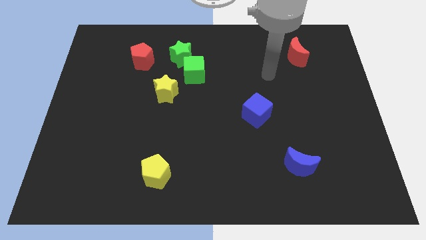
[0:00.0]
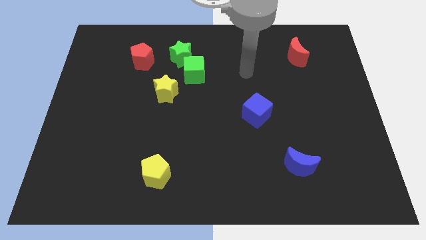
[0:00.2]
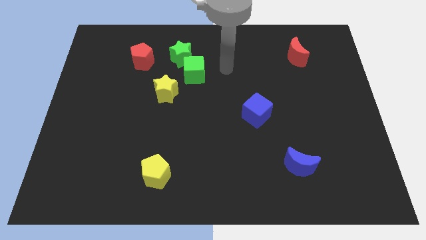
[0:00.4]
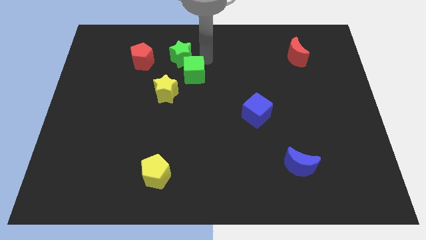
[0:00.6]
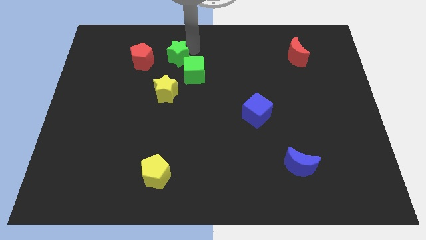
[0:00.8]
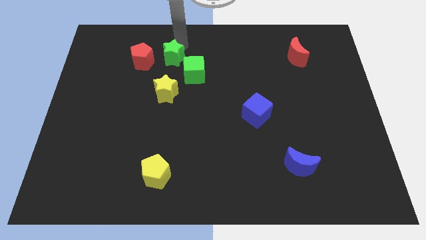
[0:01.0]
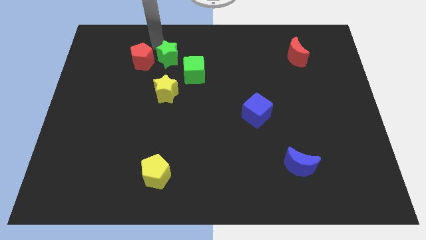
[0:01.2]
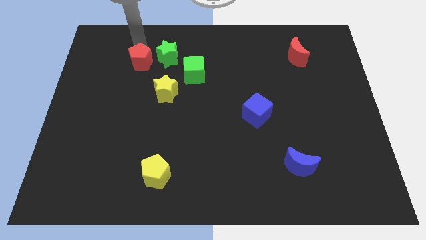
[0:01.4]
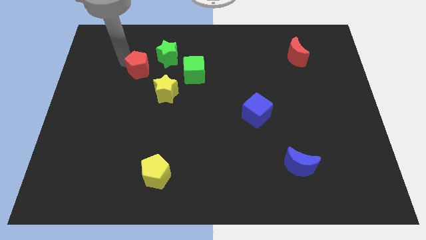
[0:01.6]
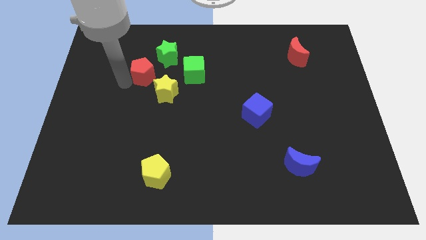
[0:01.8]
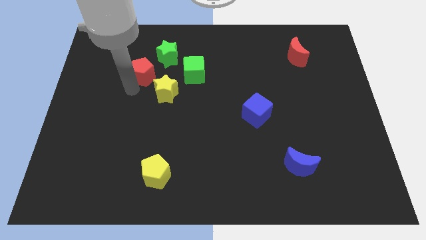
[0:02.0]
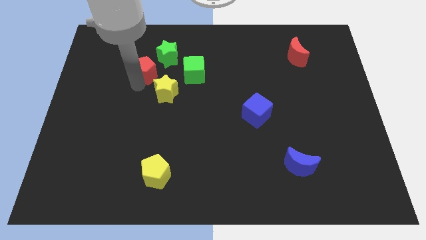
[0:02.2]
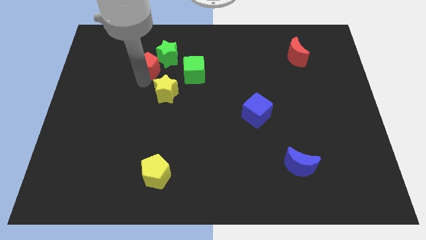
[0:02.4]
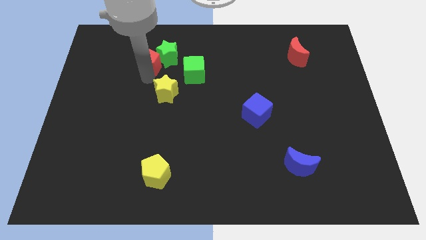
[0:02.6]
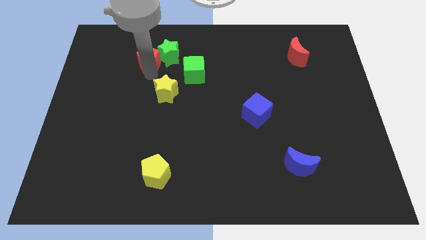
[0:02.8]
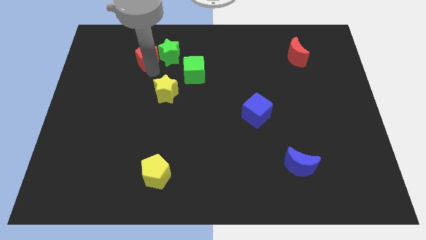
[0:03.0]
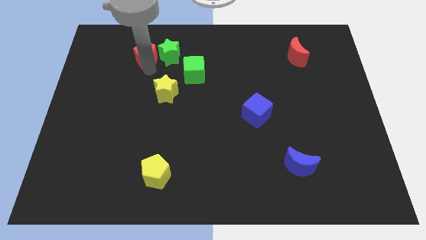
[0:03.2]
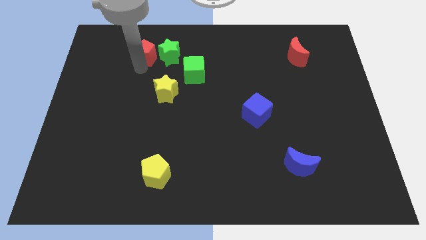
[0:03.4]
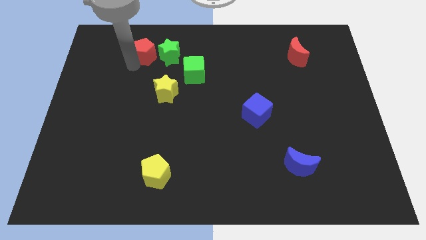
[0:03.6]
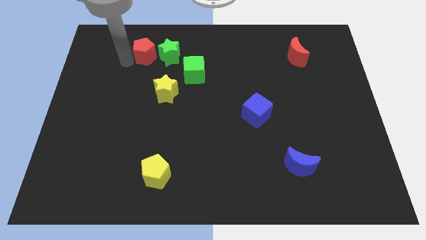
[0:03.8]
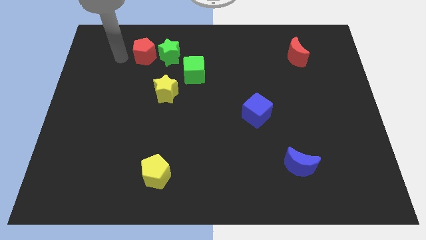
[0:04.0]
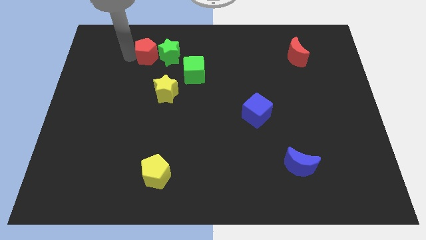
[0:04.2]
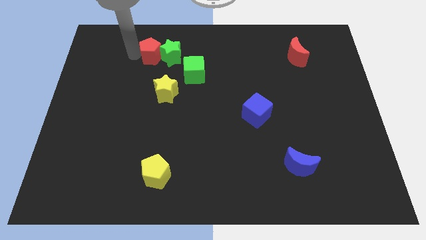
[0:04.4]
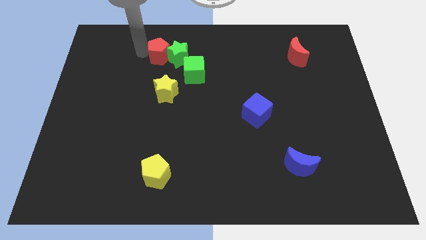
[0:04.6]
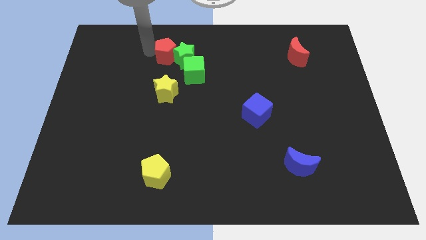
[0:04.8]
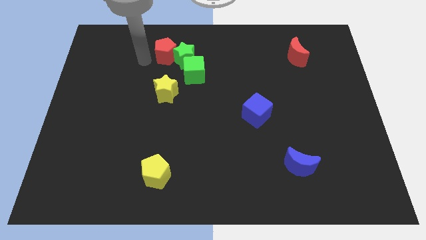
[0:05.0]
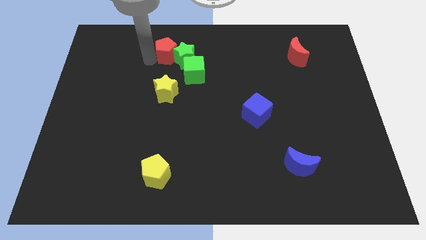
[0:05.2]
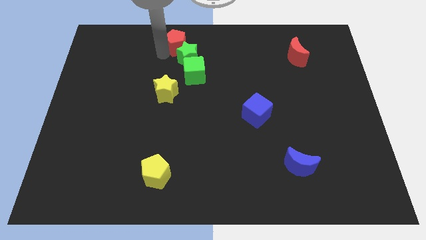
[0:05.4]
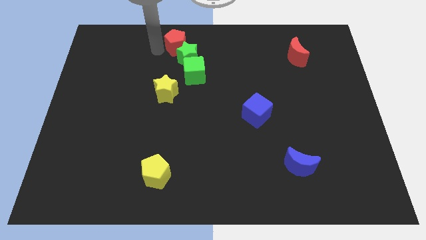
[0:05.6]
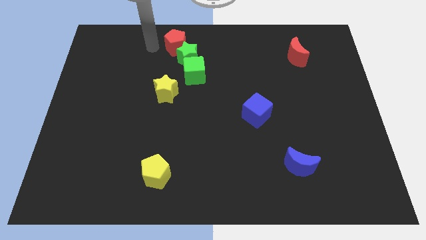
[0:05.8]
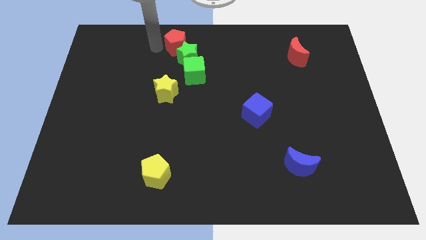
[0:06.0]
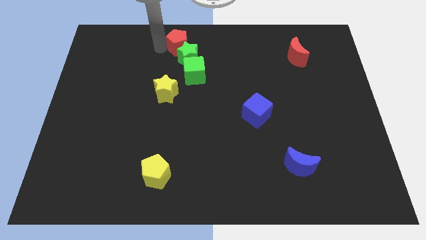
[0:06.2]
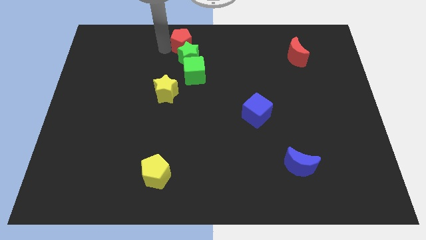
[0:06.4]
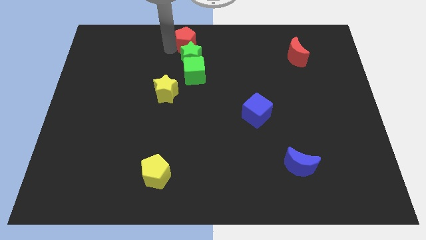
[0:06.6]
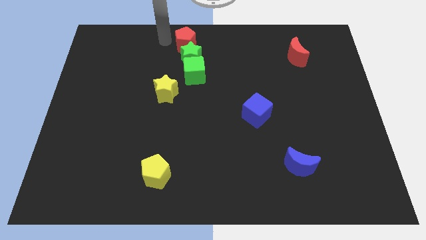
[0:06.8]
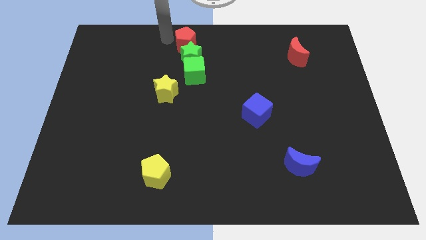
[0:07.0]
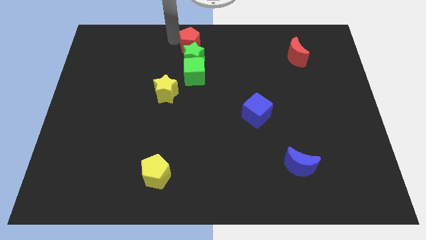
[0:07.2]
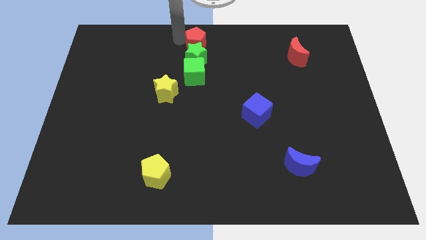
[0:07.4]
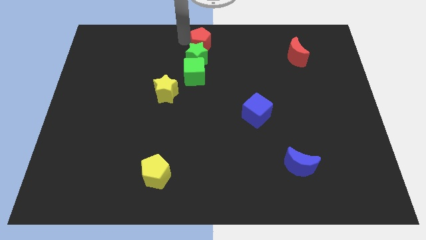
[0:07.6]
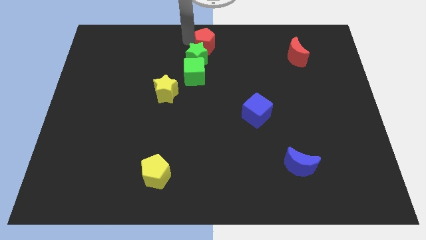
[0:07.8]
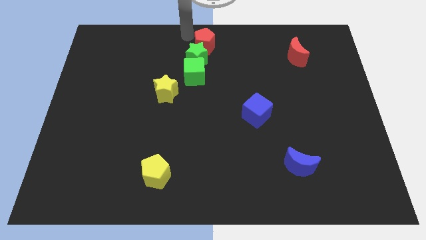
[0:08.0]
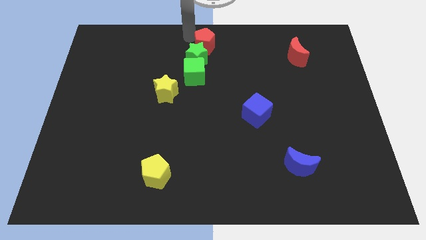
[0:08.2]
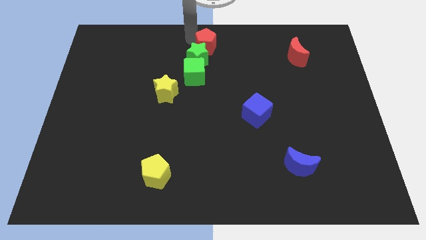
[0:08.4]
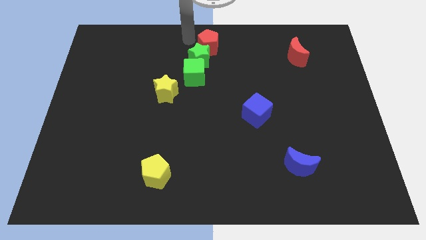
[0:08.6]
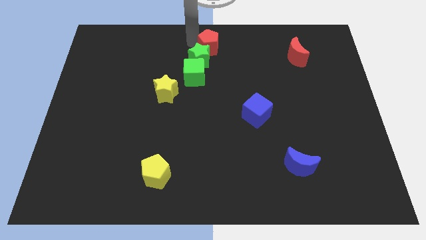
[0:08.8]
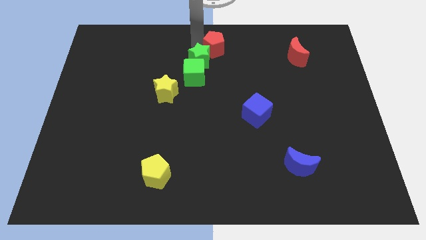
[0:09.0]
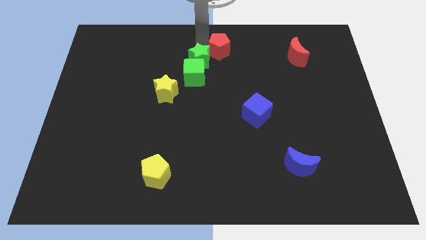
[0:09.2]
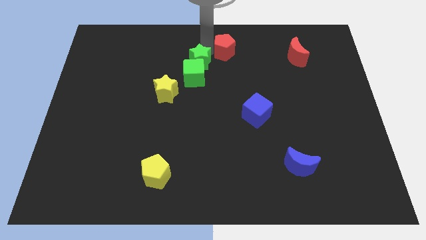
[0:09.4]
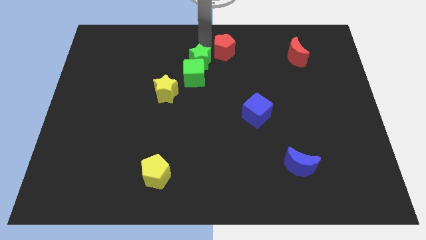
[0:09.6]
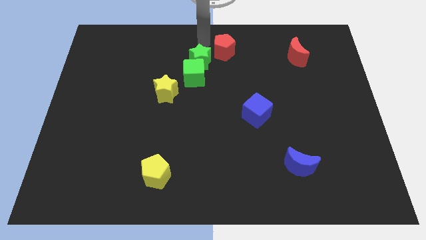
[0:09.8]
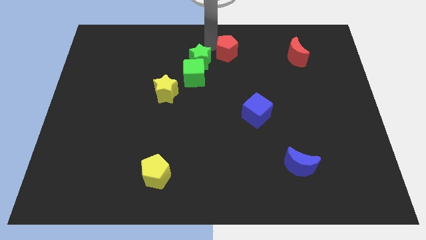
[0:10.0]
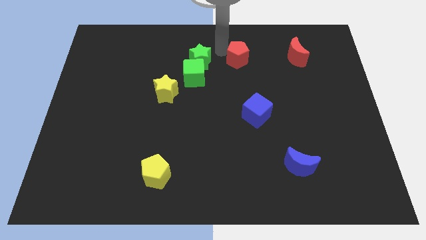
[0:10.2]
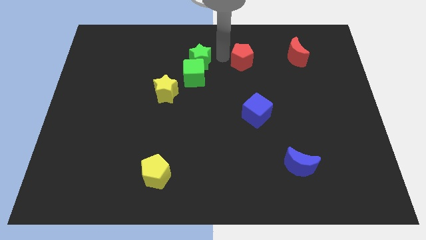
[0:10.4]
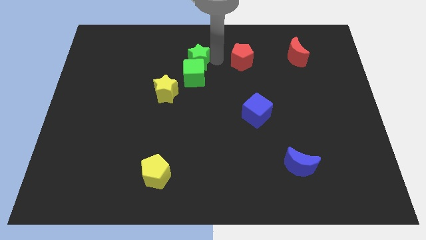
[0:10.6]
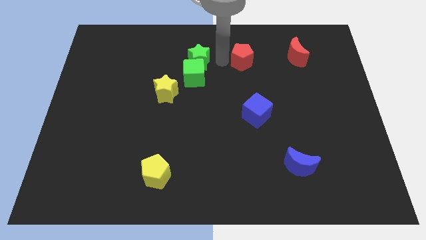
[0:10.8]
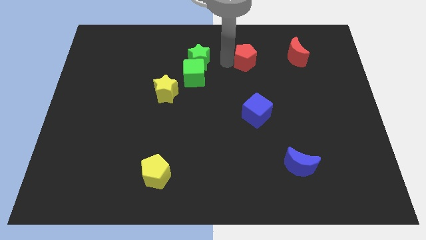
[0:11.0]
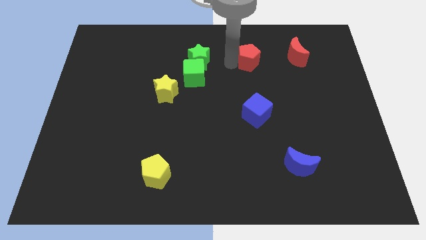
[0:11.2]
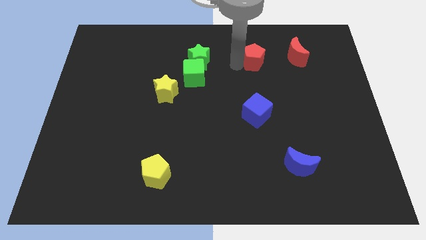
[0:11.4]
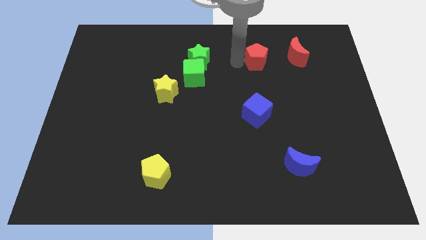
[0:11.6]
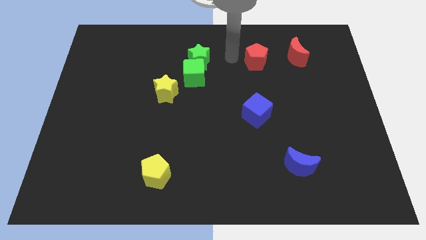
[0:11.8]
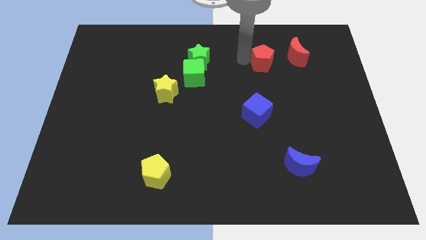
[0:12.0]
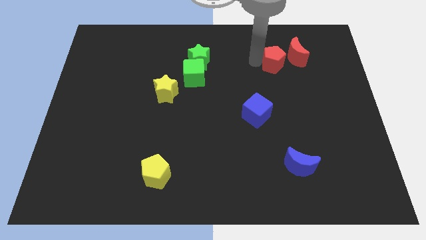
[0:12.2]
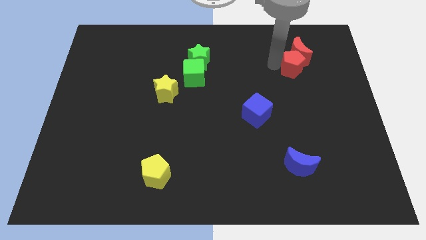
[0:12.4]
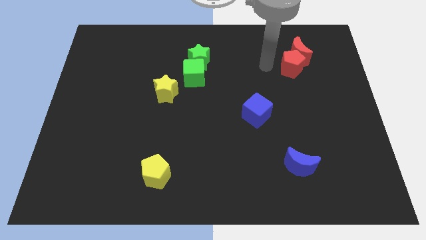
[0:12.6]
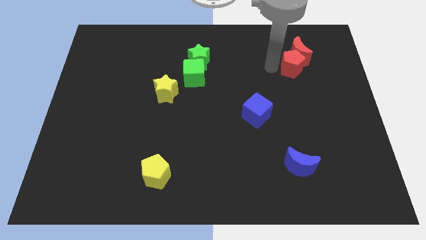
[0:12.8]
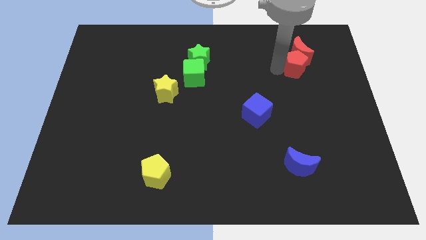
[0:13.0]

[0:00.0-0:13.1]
move the red pentagon to the bottom right of the red moon

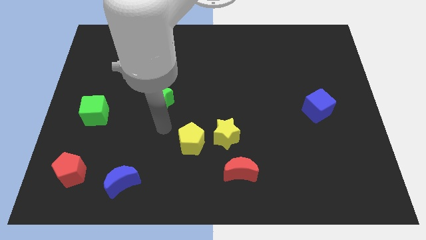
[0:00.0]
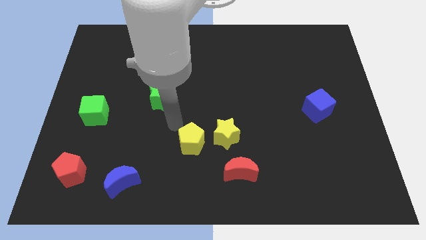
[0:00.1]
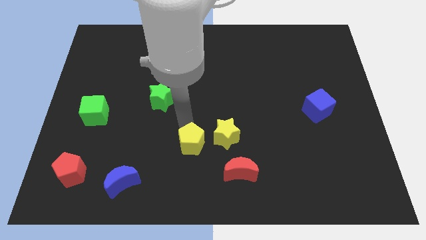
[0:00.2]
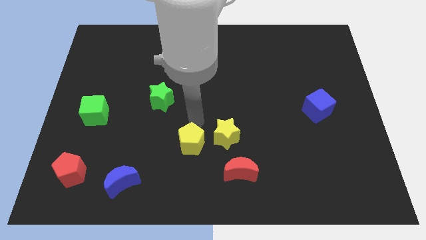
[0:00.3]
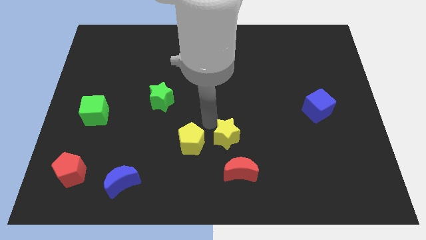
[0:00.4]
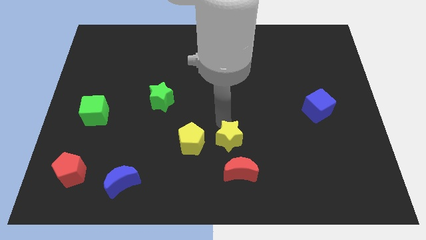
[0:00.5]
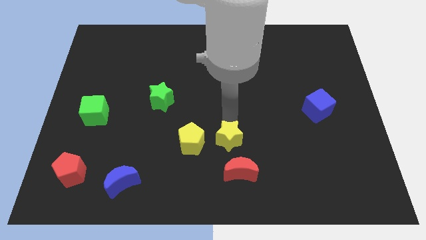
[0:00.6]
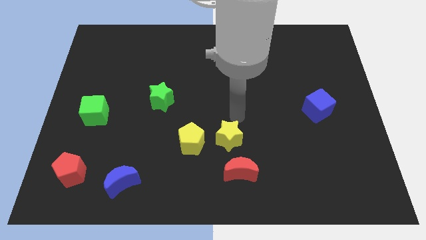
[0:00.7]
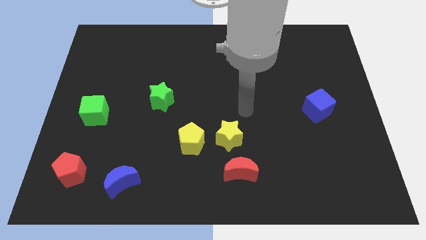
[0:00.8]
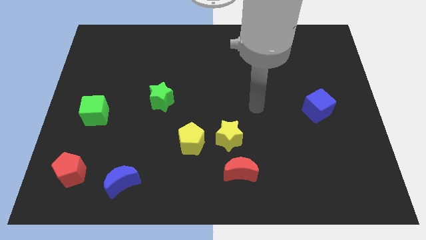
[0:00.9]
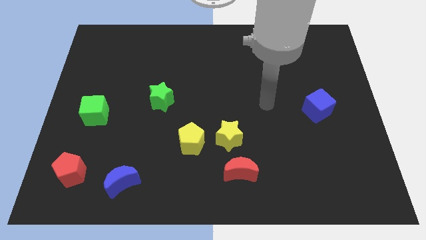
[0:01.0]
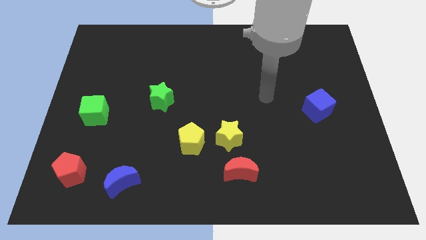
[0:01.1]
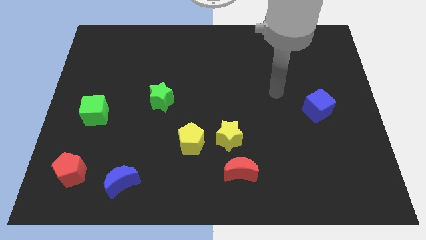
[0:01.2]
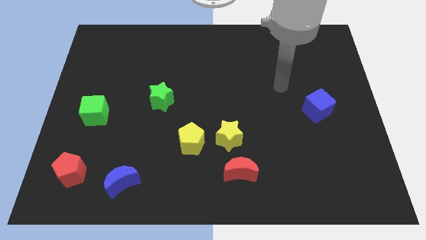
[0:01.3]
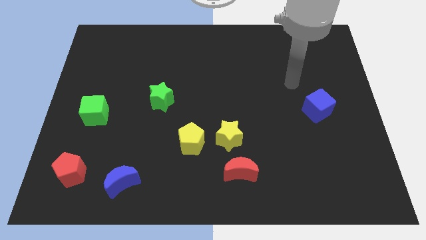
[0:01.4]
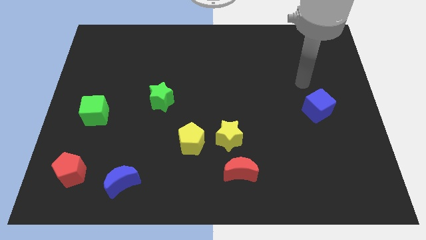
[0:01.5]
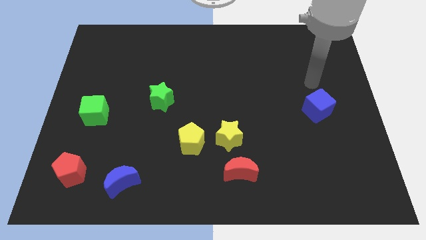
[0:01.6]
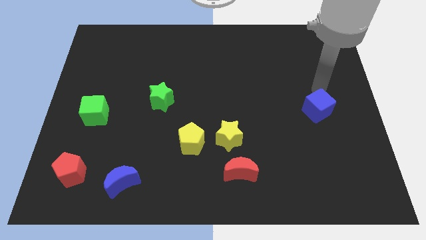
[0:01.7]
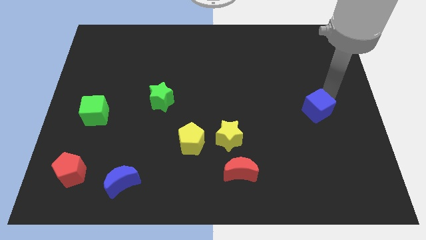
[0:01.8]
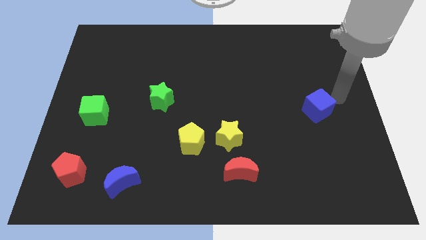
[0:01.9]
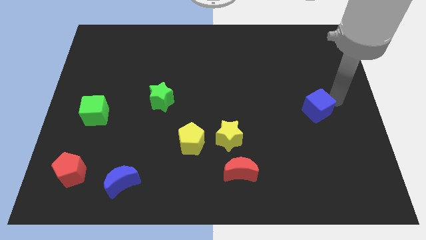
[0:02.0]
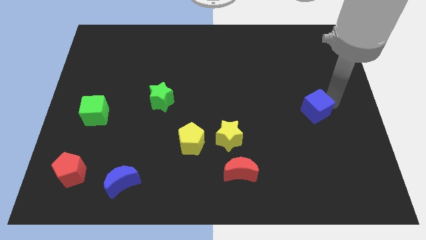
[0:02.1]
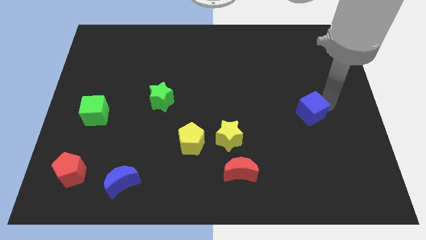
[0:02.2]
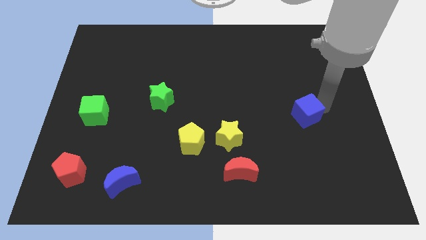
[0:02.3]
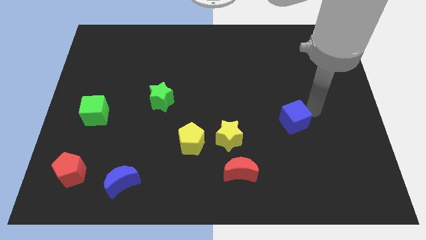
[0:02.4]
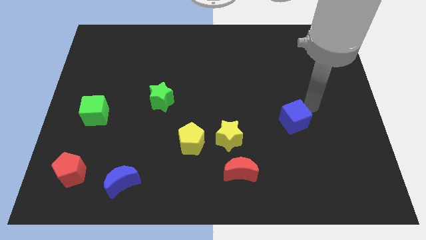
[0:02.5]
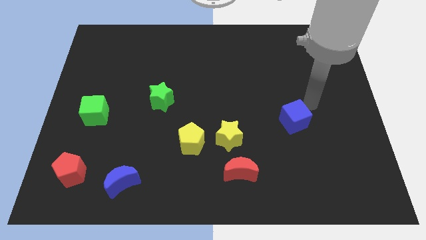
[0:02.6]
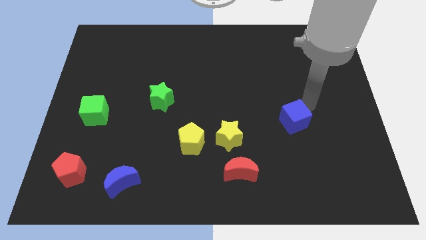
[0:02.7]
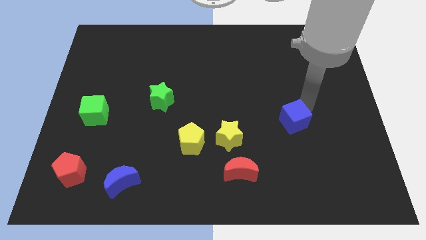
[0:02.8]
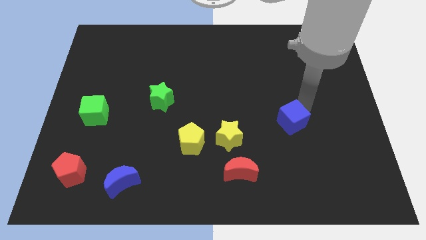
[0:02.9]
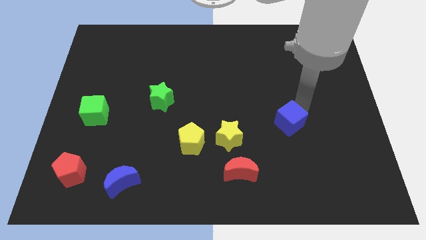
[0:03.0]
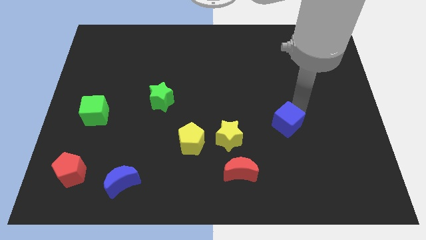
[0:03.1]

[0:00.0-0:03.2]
slide the blue cube right of the yellow star
